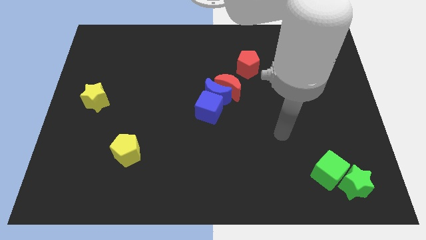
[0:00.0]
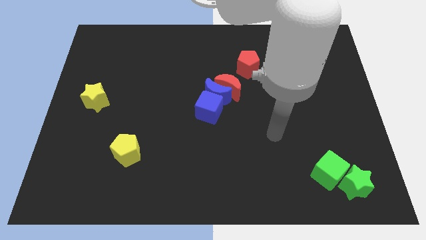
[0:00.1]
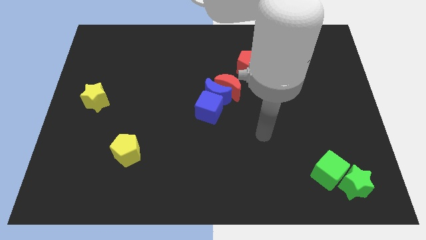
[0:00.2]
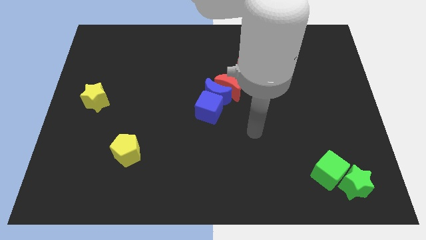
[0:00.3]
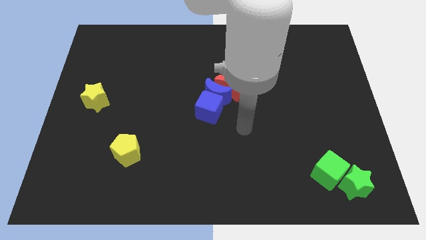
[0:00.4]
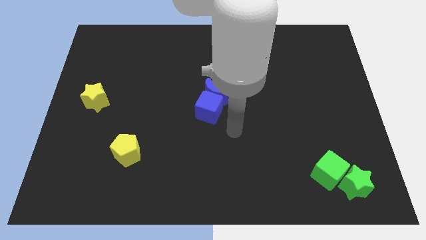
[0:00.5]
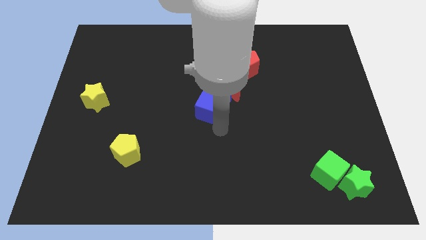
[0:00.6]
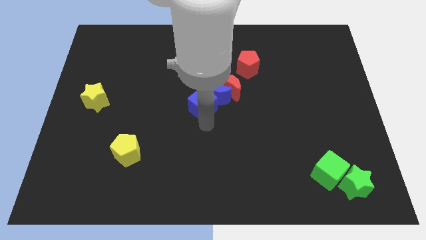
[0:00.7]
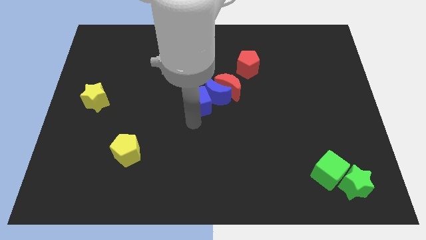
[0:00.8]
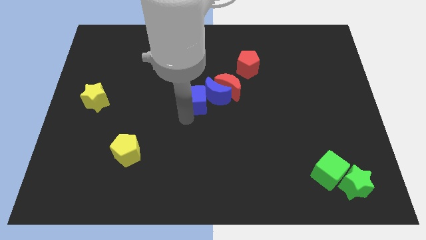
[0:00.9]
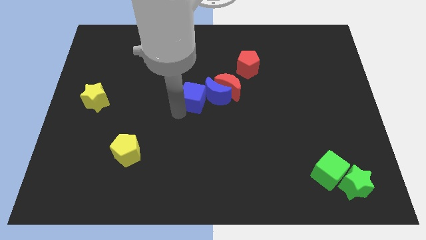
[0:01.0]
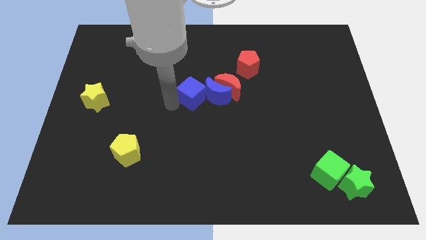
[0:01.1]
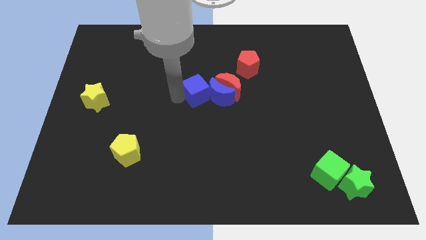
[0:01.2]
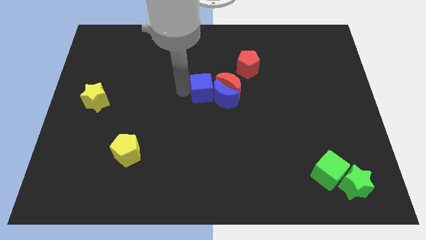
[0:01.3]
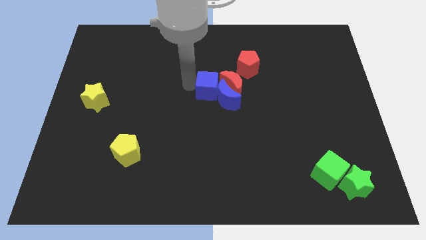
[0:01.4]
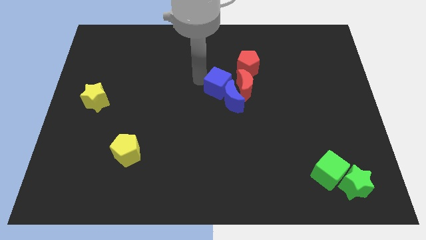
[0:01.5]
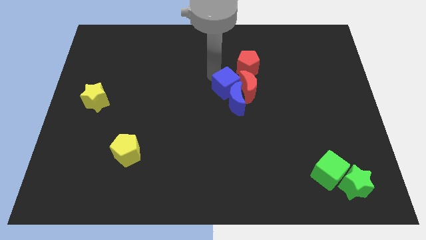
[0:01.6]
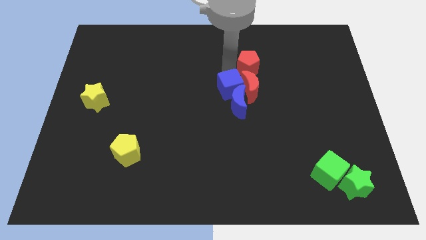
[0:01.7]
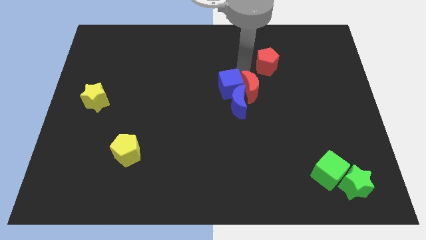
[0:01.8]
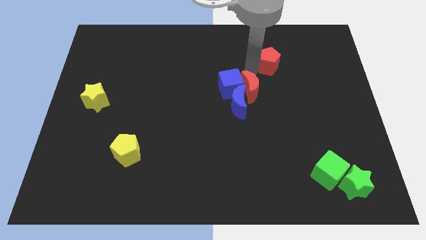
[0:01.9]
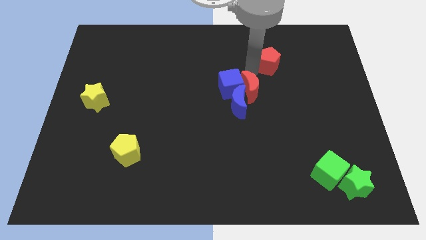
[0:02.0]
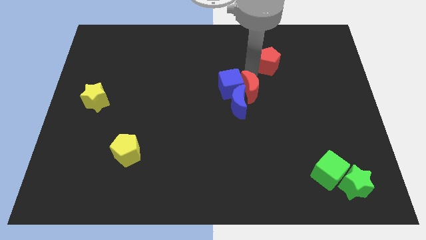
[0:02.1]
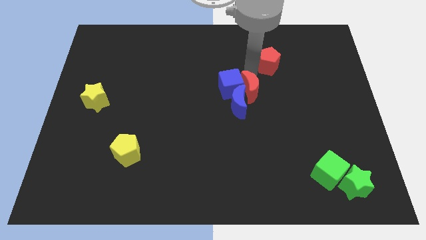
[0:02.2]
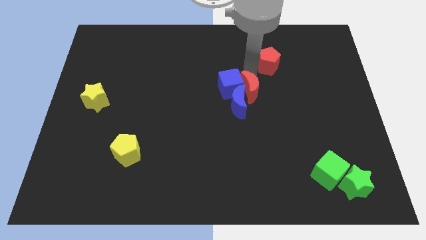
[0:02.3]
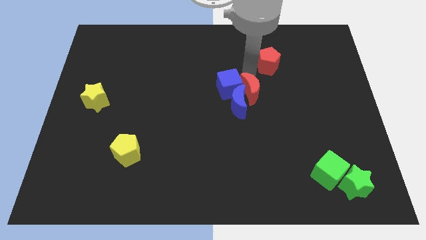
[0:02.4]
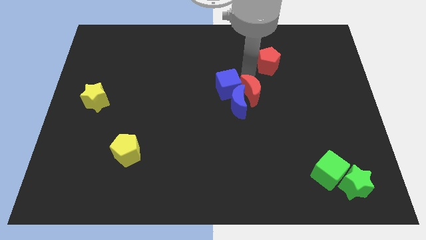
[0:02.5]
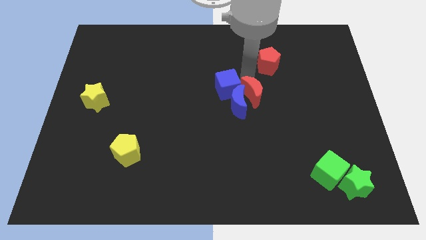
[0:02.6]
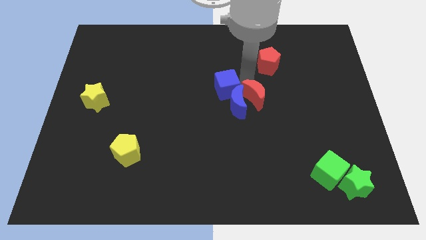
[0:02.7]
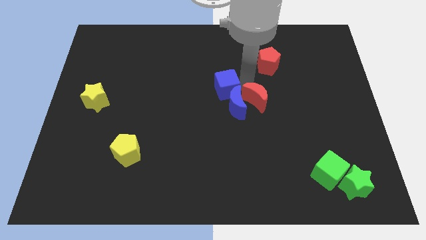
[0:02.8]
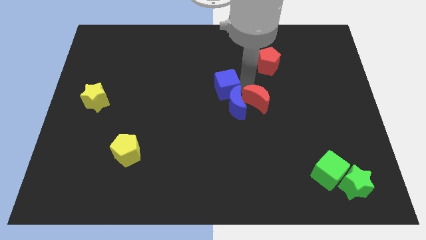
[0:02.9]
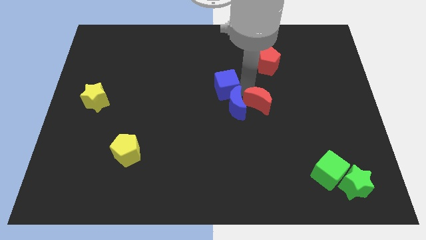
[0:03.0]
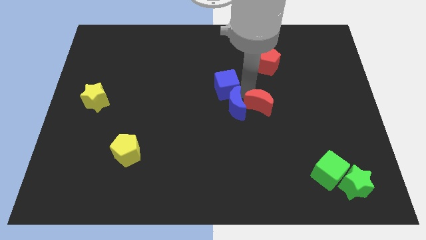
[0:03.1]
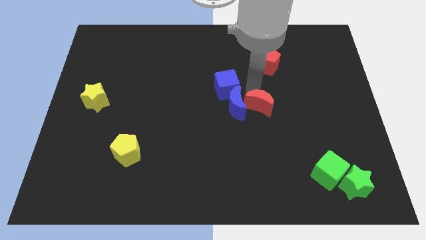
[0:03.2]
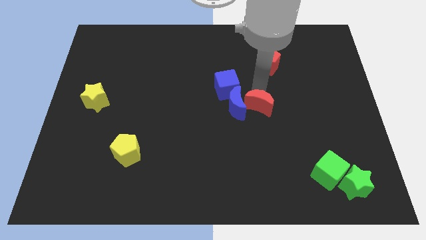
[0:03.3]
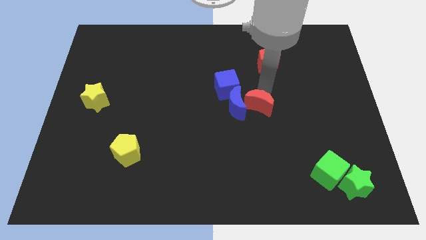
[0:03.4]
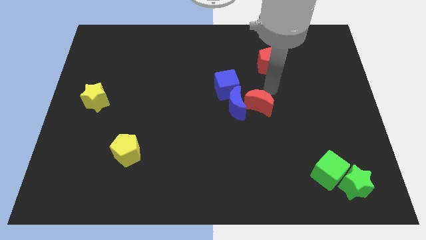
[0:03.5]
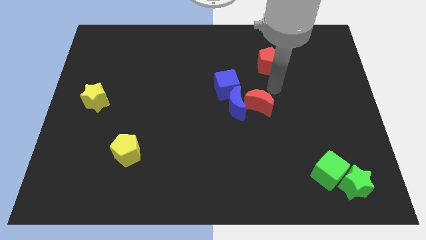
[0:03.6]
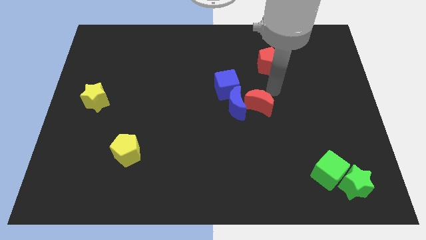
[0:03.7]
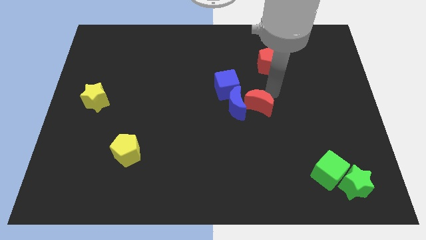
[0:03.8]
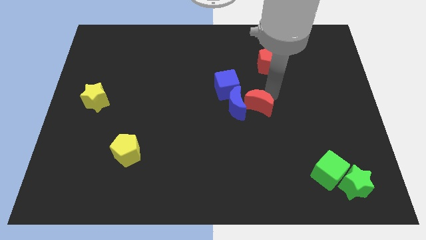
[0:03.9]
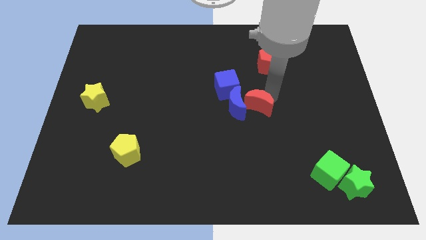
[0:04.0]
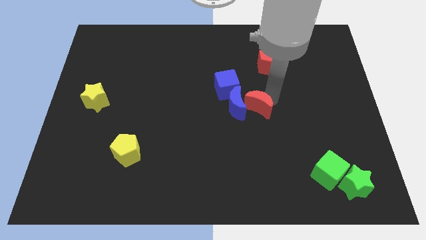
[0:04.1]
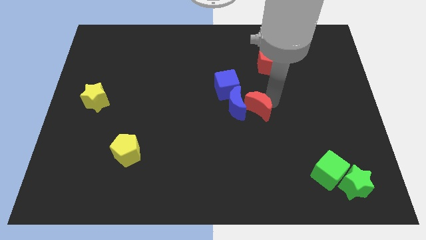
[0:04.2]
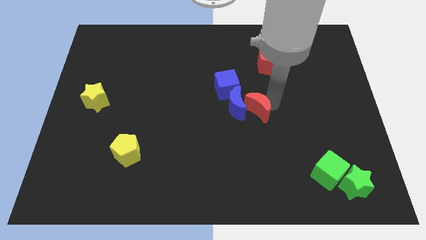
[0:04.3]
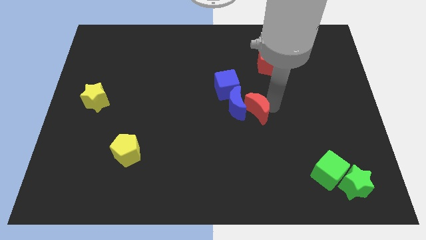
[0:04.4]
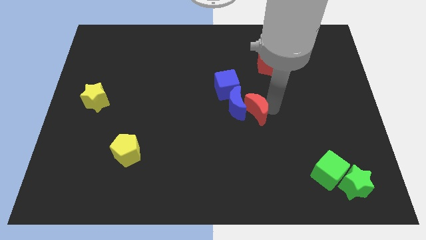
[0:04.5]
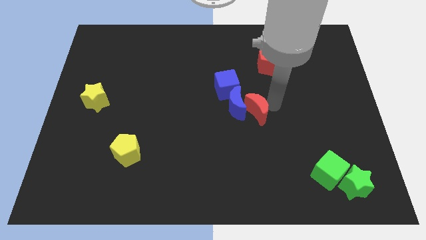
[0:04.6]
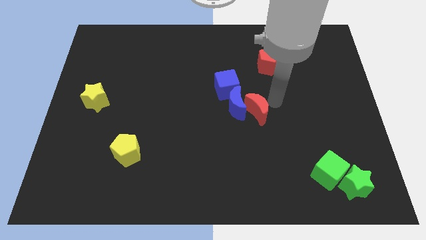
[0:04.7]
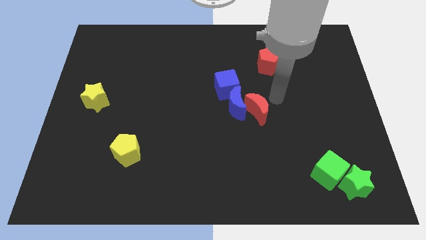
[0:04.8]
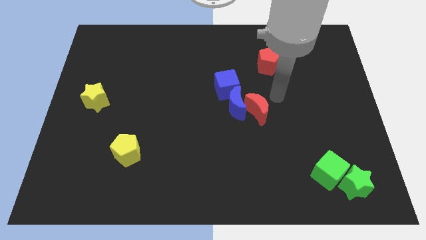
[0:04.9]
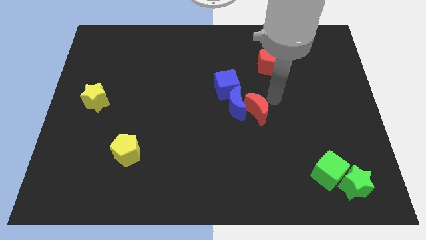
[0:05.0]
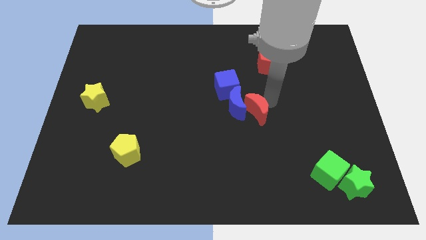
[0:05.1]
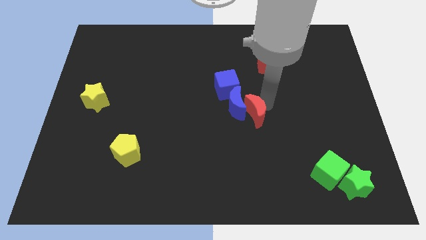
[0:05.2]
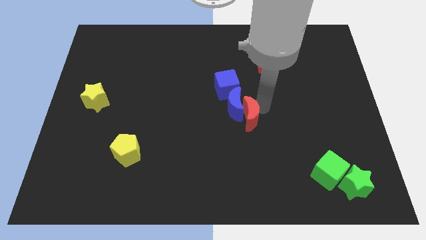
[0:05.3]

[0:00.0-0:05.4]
slide the red moon a little downwards

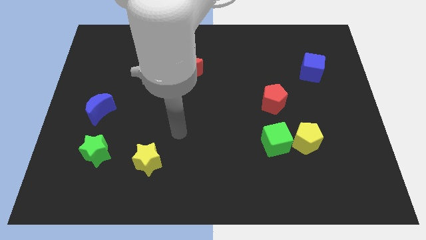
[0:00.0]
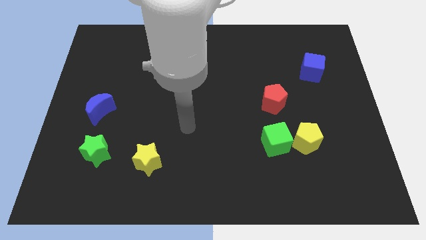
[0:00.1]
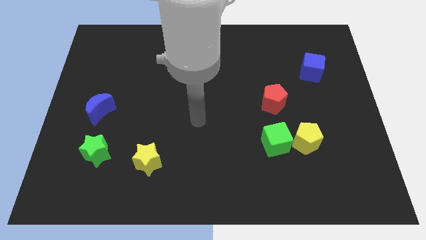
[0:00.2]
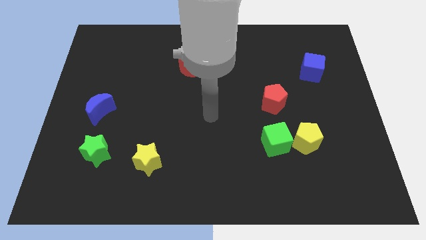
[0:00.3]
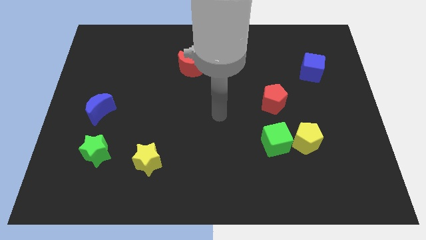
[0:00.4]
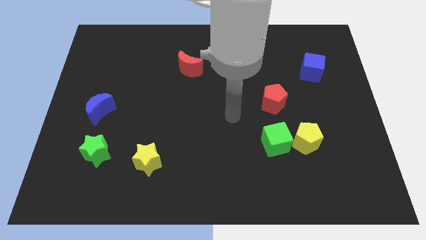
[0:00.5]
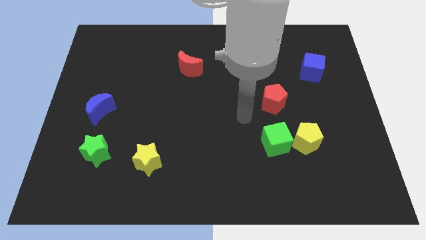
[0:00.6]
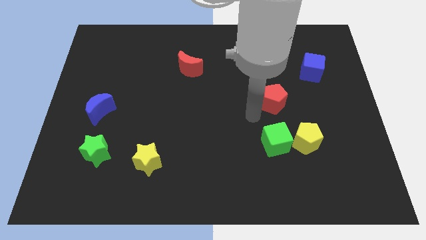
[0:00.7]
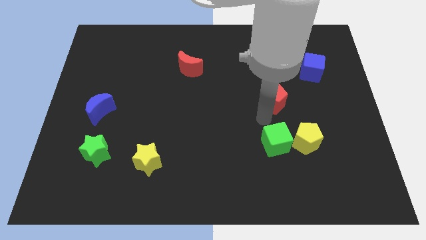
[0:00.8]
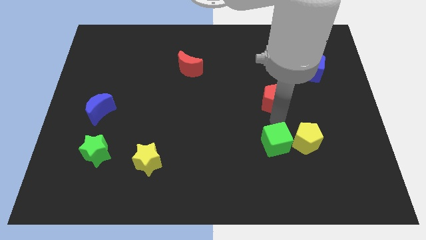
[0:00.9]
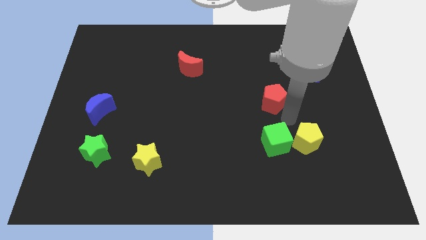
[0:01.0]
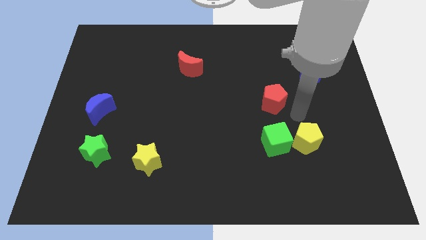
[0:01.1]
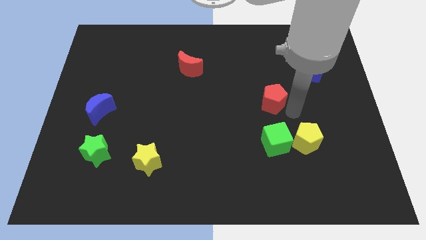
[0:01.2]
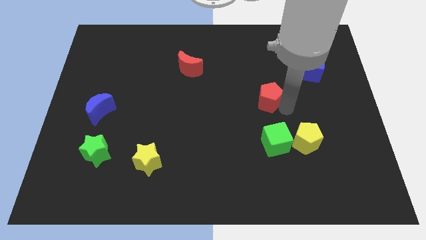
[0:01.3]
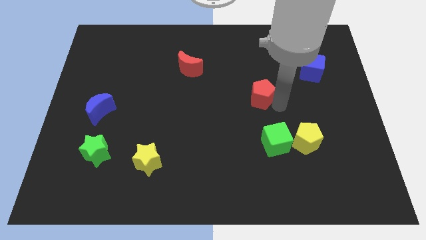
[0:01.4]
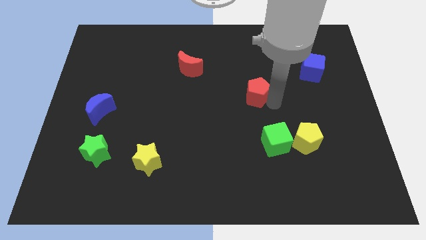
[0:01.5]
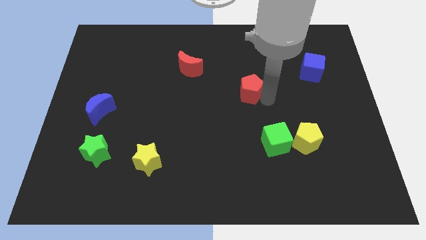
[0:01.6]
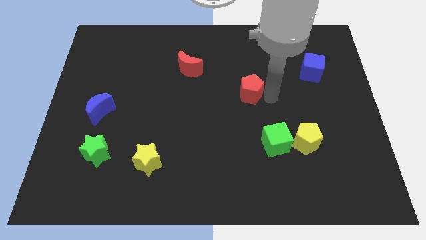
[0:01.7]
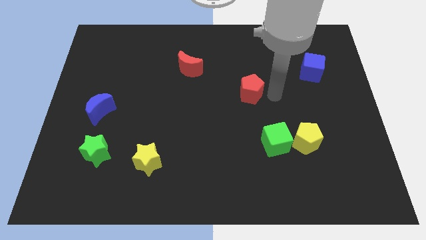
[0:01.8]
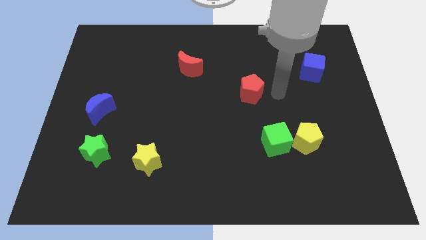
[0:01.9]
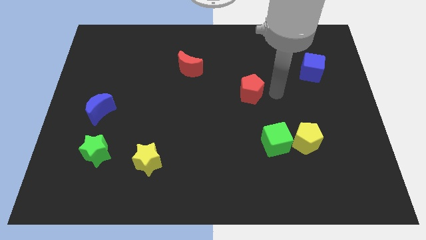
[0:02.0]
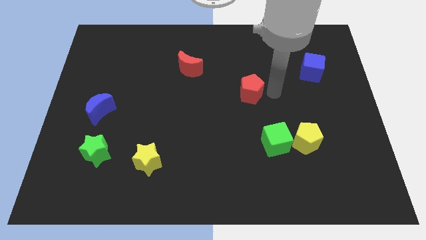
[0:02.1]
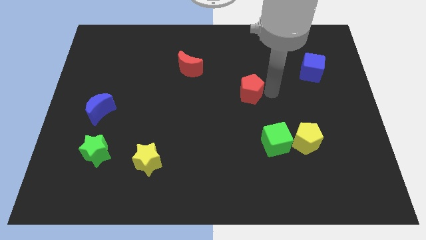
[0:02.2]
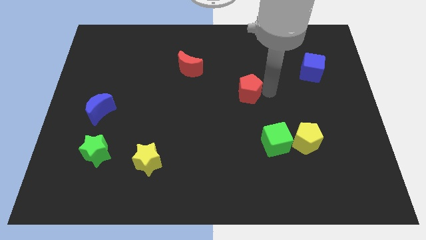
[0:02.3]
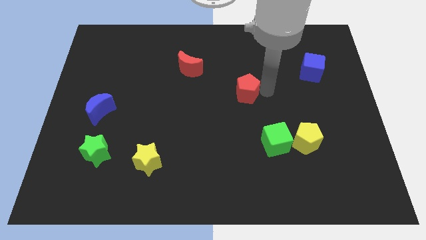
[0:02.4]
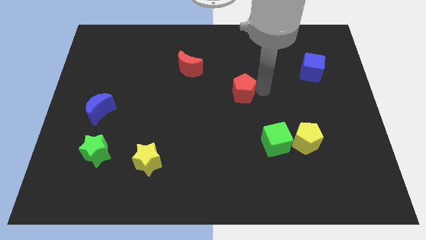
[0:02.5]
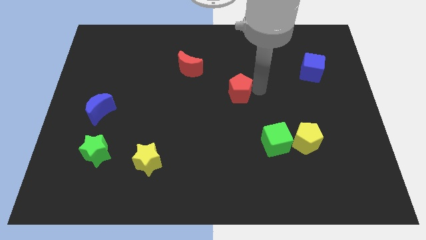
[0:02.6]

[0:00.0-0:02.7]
move the red pentagon a little bit to the left

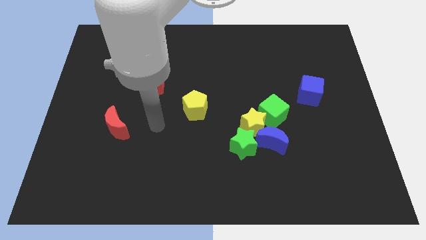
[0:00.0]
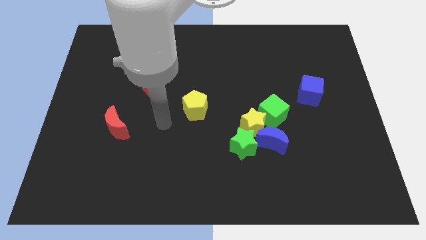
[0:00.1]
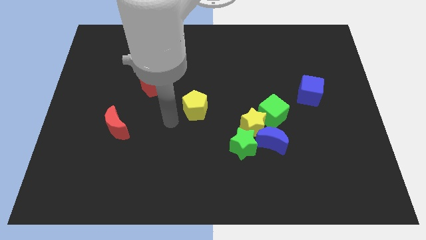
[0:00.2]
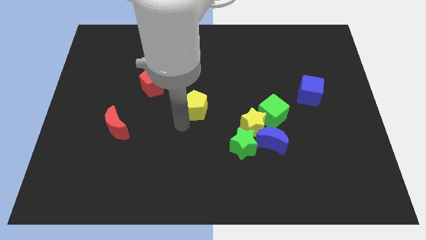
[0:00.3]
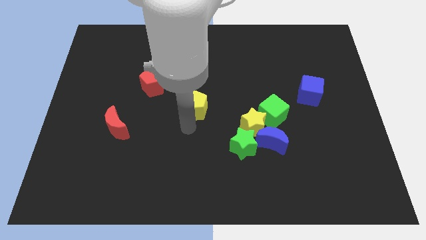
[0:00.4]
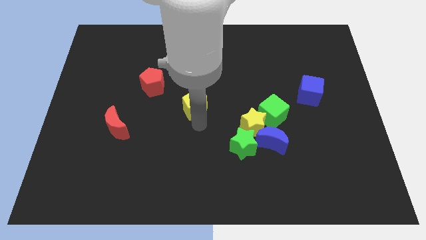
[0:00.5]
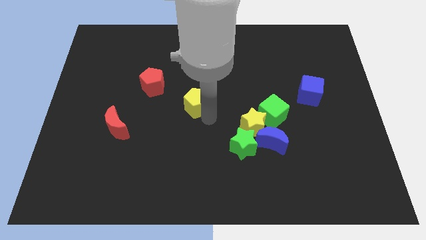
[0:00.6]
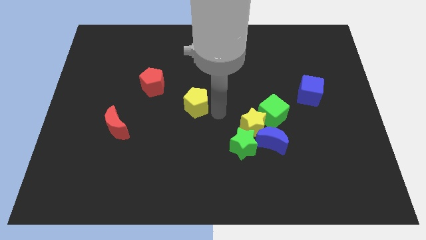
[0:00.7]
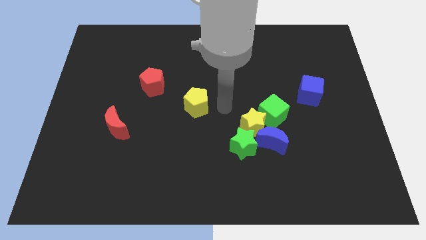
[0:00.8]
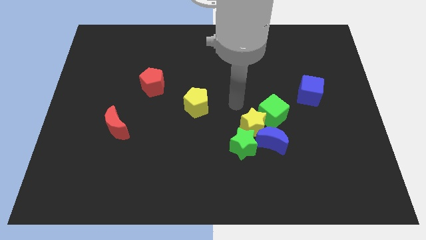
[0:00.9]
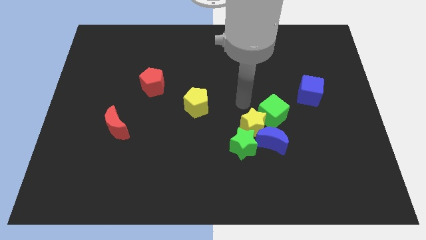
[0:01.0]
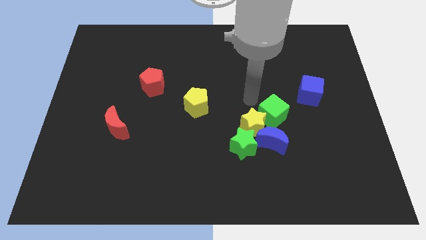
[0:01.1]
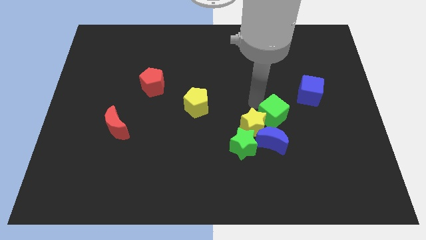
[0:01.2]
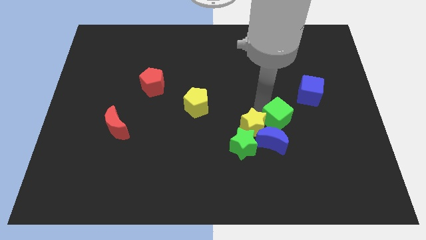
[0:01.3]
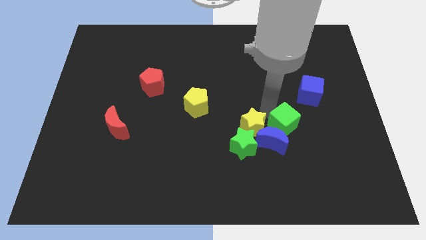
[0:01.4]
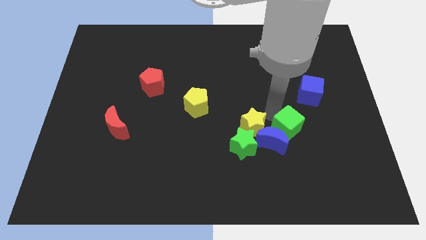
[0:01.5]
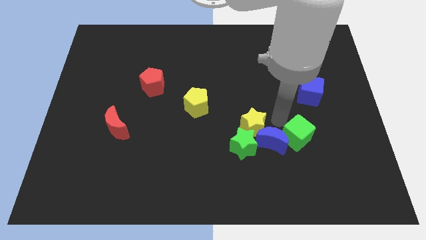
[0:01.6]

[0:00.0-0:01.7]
slightly move the green cube downwards and to the right
